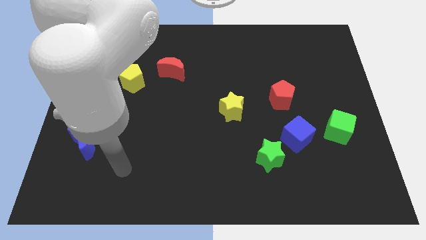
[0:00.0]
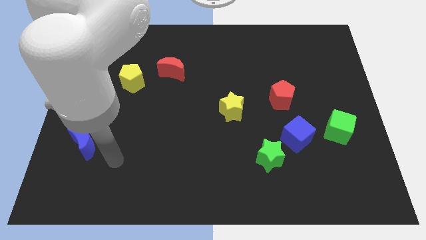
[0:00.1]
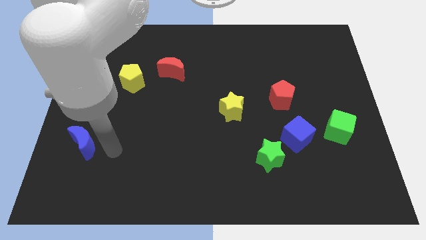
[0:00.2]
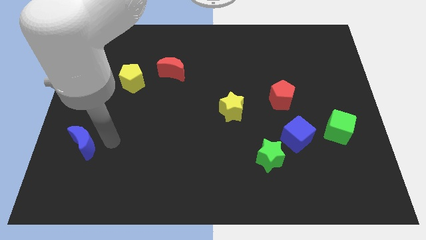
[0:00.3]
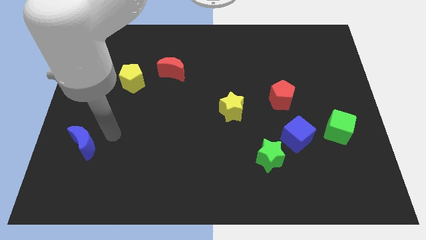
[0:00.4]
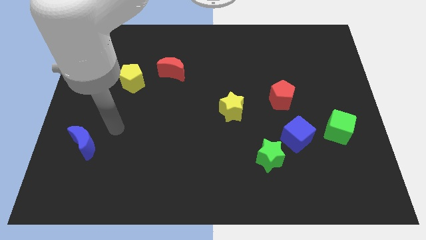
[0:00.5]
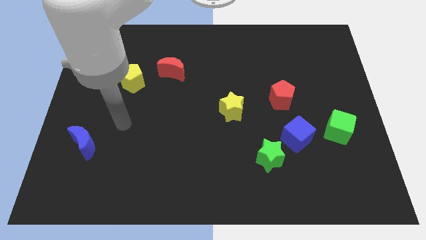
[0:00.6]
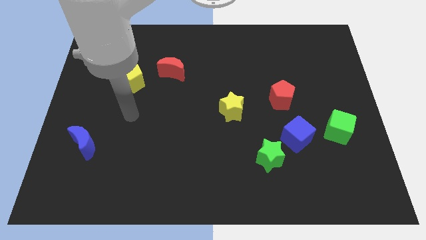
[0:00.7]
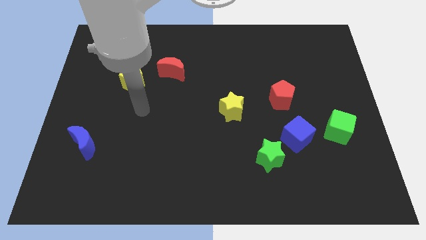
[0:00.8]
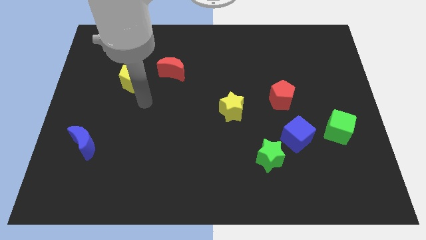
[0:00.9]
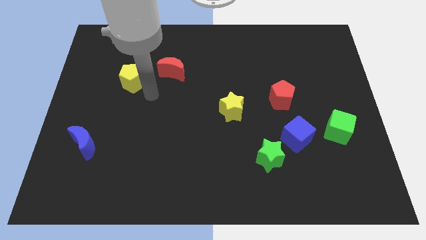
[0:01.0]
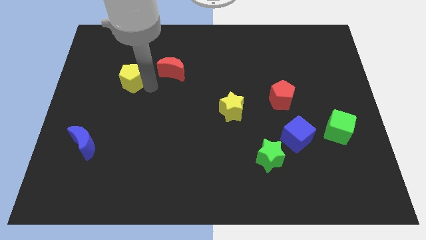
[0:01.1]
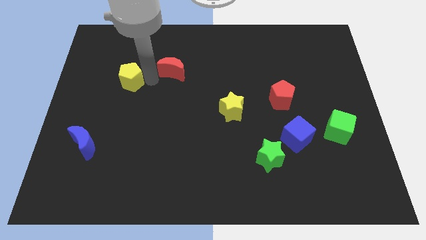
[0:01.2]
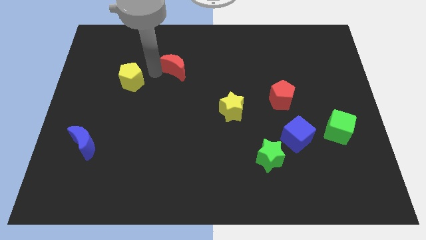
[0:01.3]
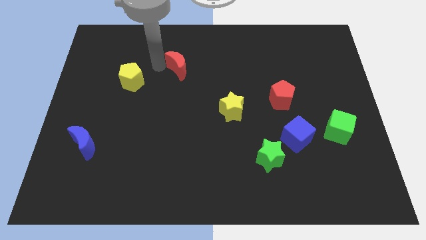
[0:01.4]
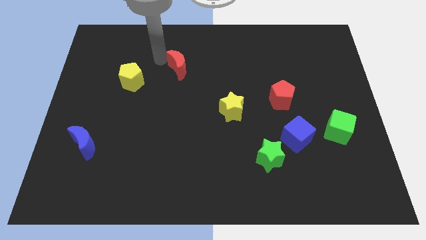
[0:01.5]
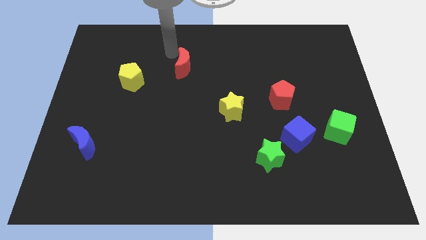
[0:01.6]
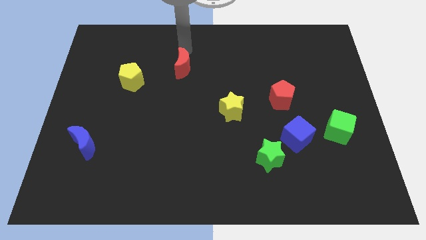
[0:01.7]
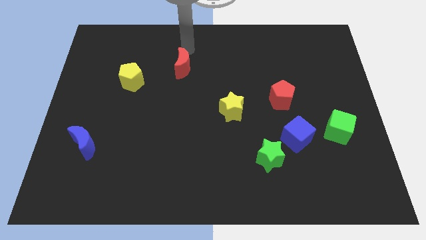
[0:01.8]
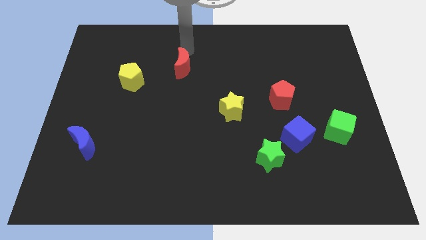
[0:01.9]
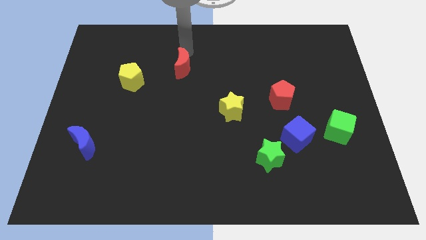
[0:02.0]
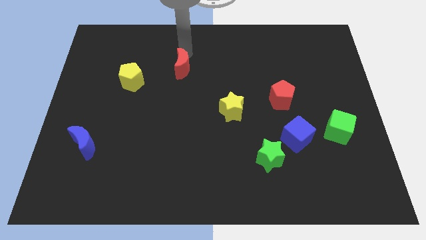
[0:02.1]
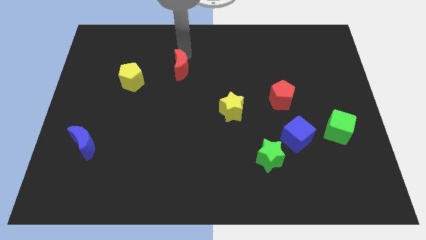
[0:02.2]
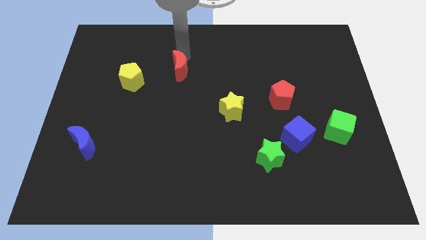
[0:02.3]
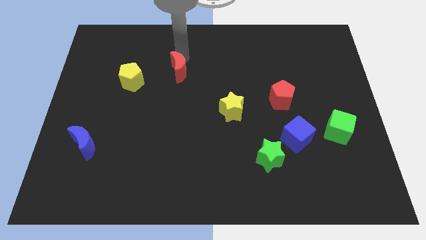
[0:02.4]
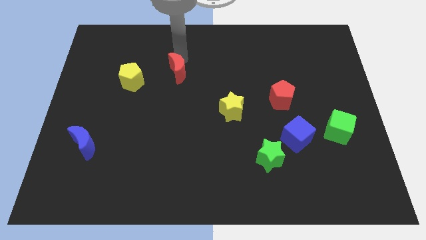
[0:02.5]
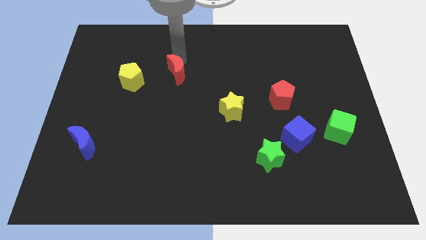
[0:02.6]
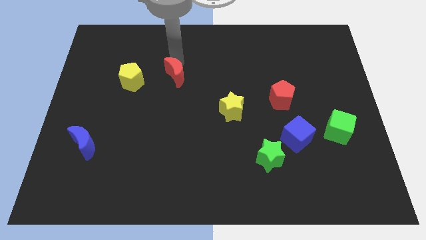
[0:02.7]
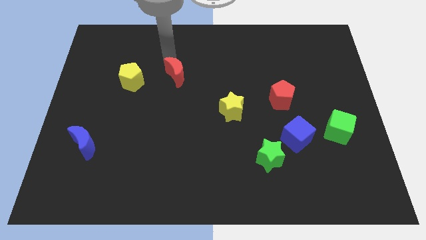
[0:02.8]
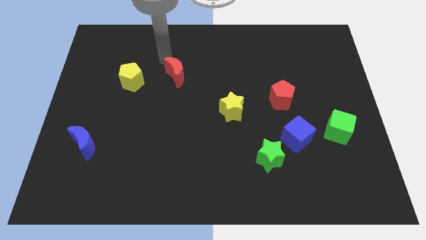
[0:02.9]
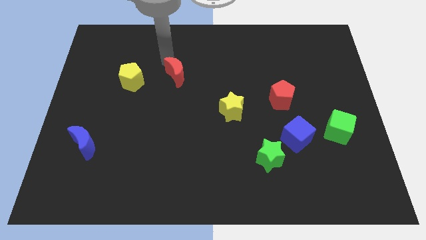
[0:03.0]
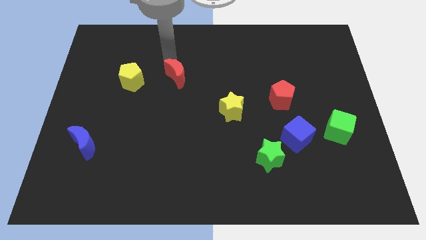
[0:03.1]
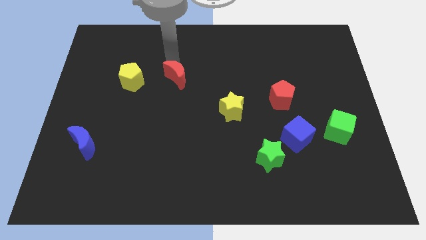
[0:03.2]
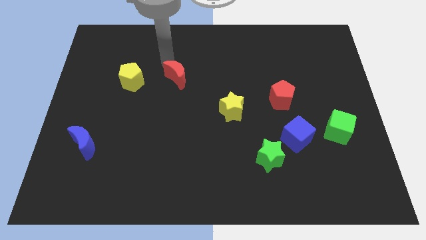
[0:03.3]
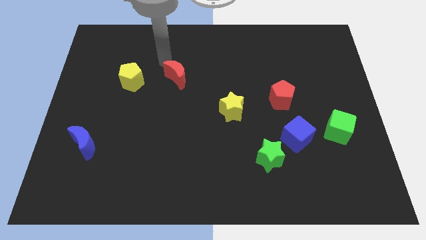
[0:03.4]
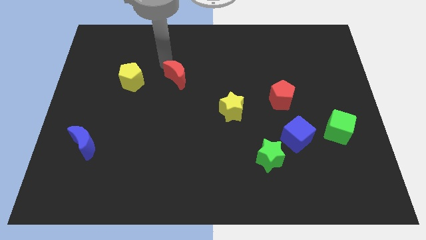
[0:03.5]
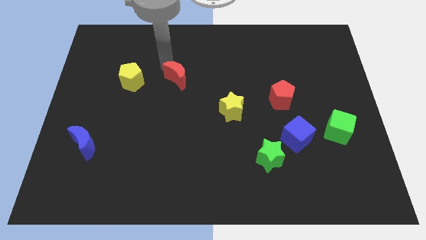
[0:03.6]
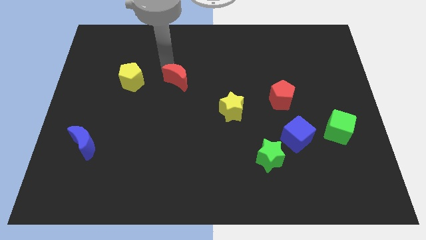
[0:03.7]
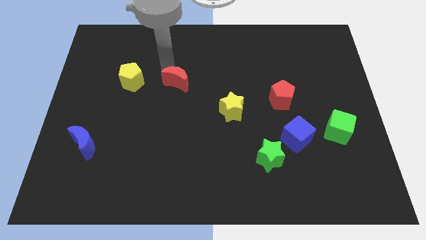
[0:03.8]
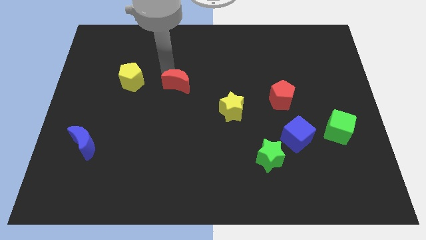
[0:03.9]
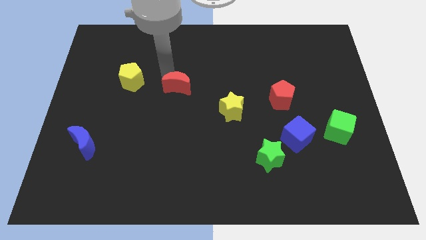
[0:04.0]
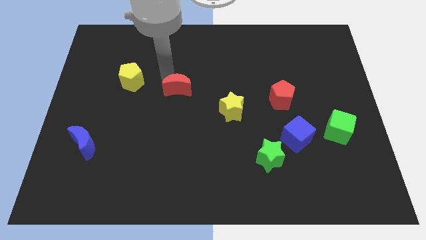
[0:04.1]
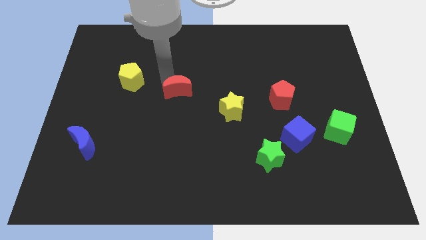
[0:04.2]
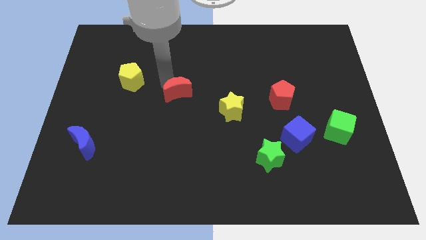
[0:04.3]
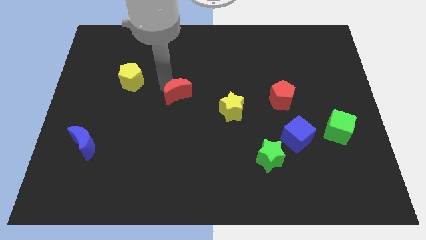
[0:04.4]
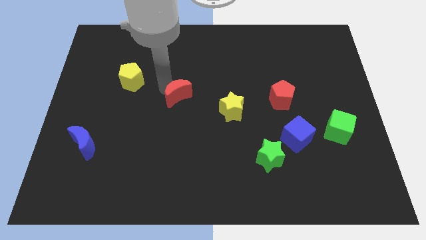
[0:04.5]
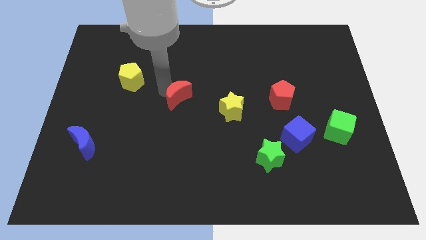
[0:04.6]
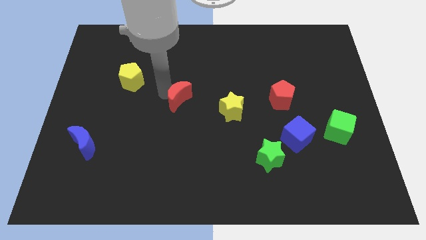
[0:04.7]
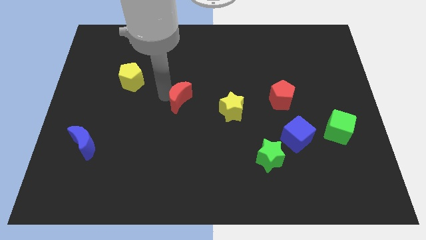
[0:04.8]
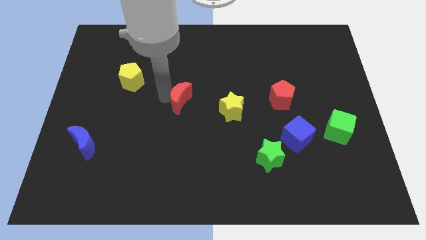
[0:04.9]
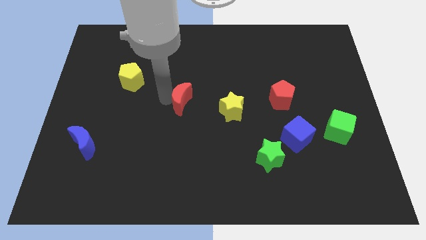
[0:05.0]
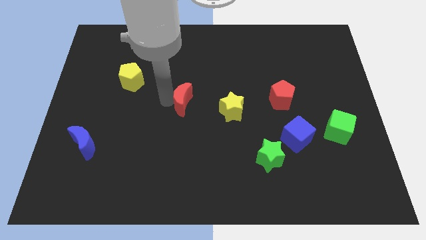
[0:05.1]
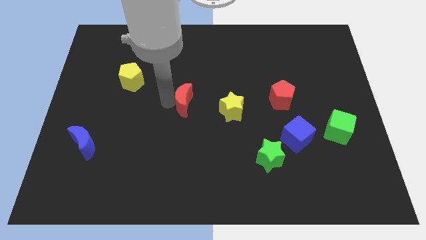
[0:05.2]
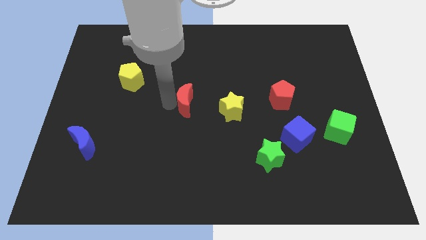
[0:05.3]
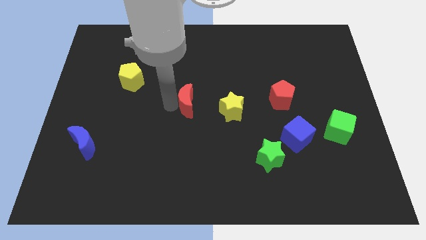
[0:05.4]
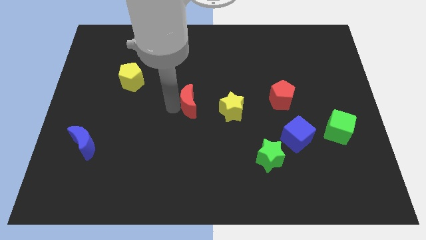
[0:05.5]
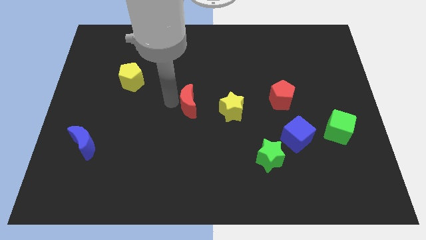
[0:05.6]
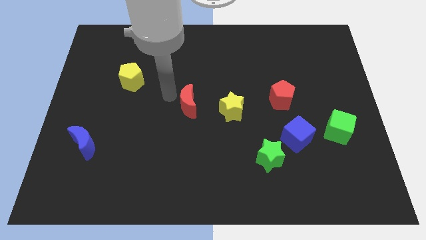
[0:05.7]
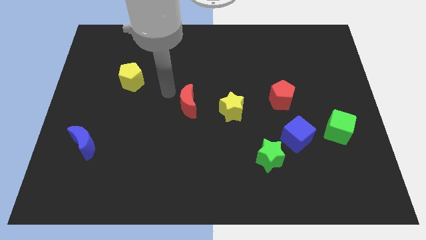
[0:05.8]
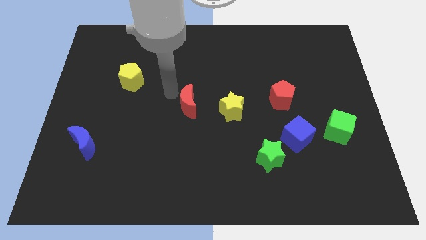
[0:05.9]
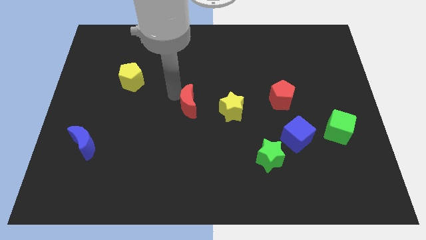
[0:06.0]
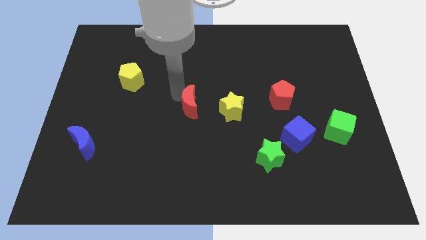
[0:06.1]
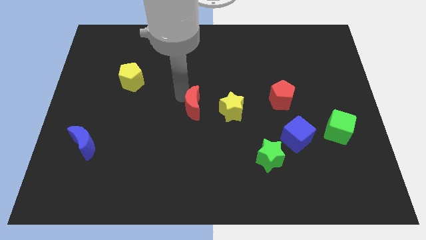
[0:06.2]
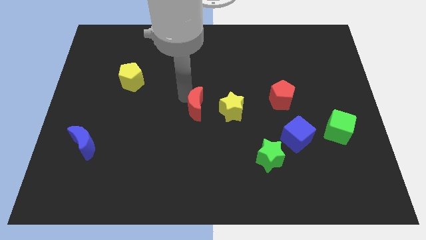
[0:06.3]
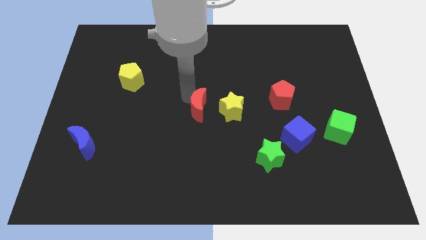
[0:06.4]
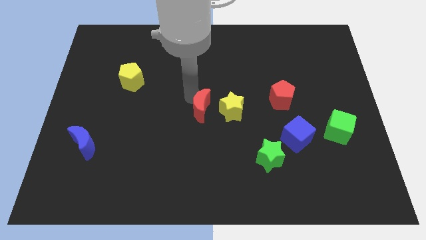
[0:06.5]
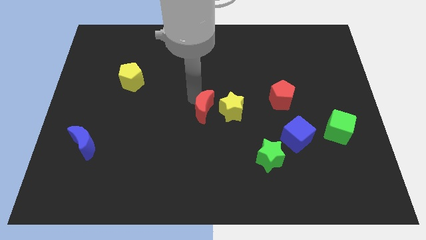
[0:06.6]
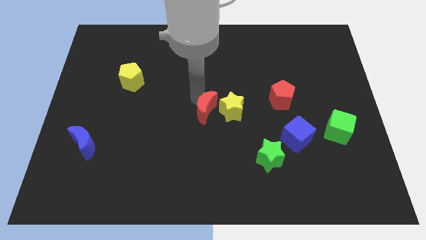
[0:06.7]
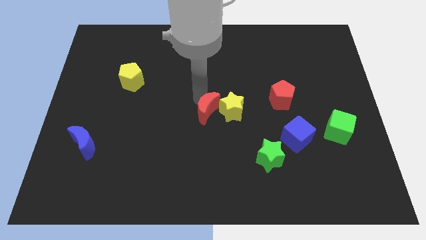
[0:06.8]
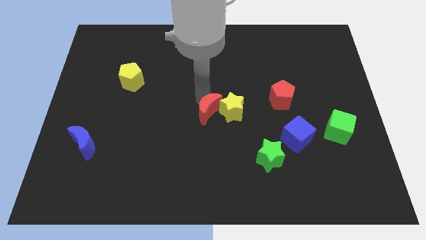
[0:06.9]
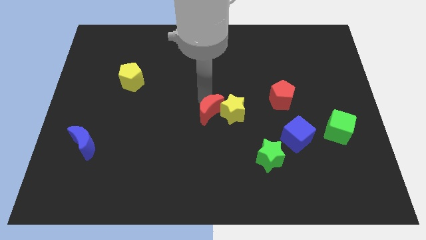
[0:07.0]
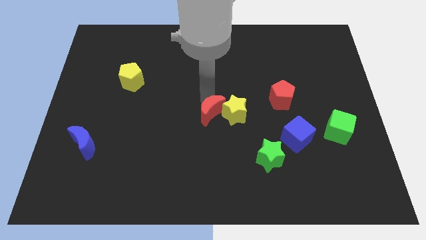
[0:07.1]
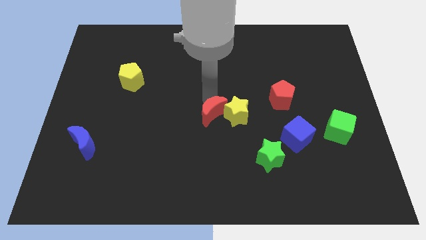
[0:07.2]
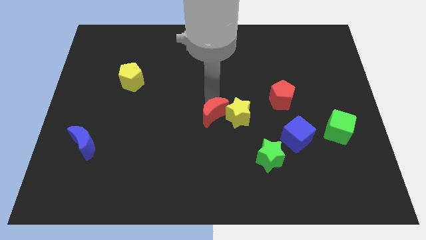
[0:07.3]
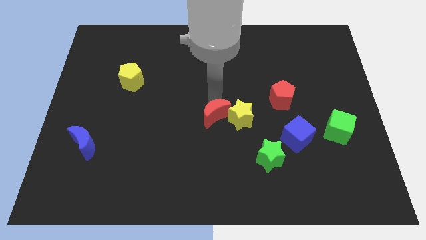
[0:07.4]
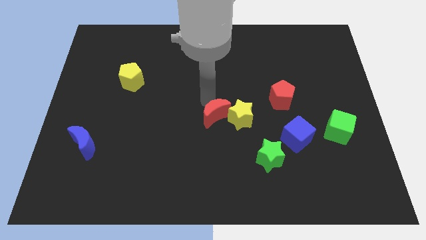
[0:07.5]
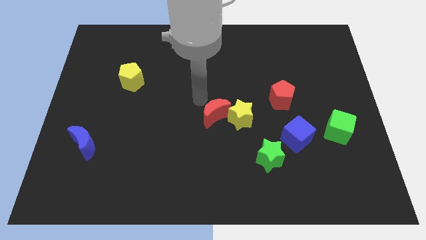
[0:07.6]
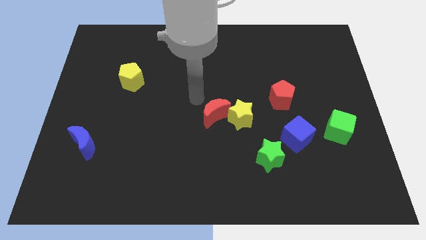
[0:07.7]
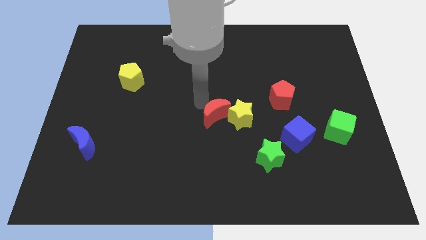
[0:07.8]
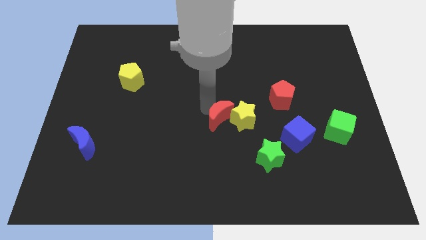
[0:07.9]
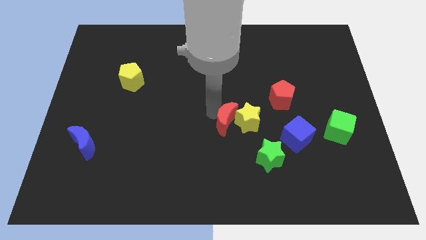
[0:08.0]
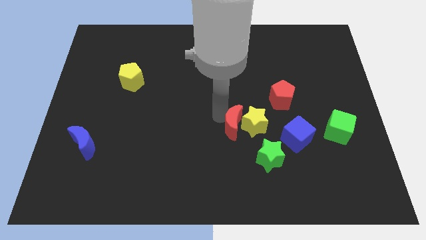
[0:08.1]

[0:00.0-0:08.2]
put the red moon to the top left of the green star
